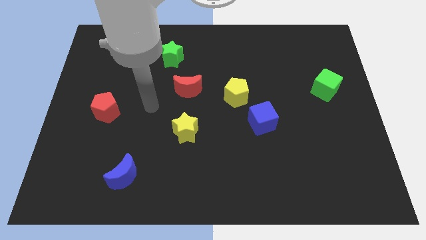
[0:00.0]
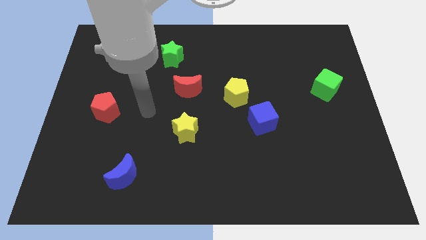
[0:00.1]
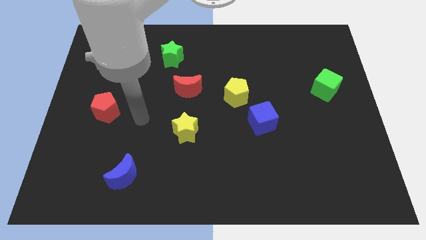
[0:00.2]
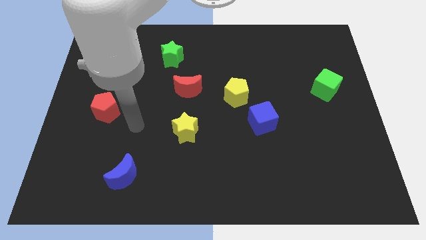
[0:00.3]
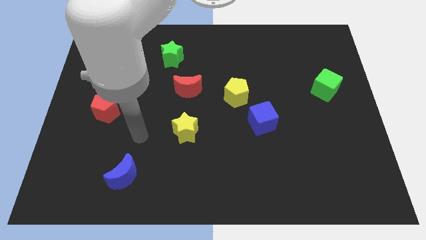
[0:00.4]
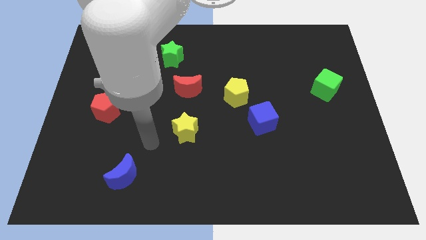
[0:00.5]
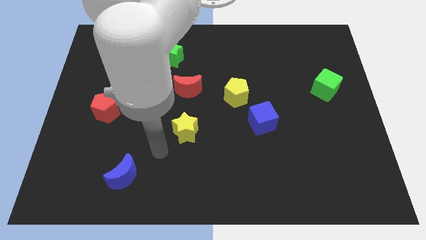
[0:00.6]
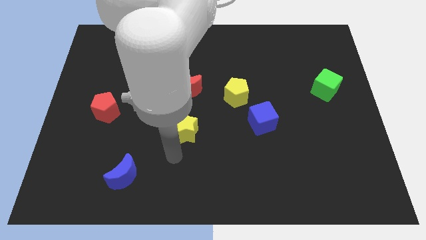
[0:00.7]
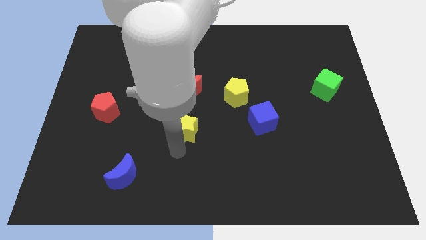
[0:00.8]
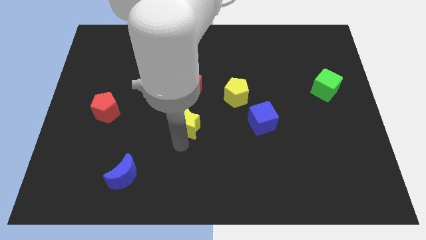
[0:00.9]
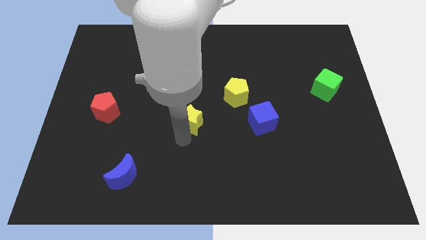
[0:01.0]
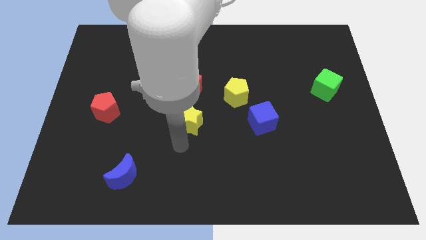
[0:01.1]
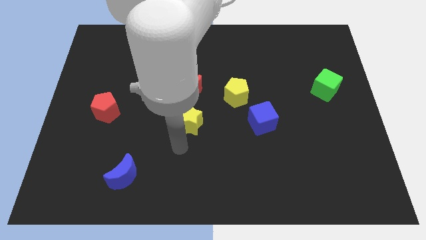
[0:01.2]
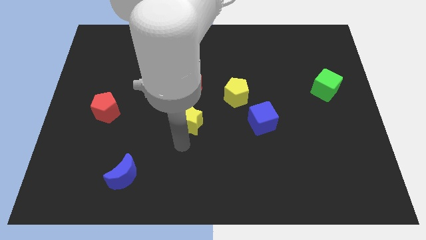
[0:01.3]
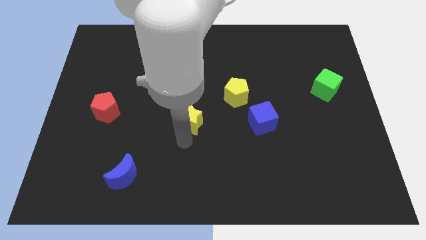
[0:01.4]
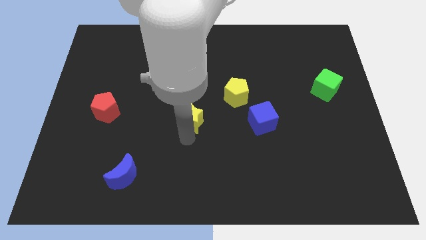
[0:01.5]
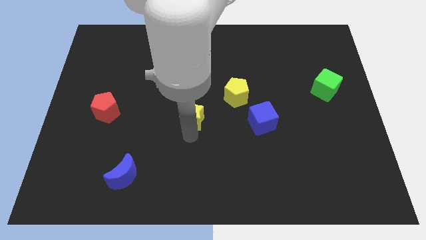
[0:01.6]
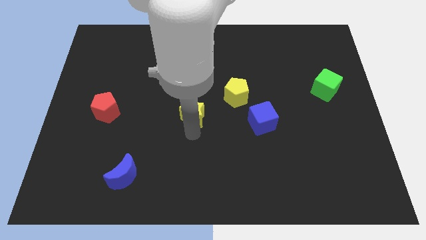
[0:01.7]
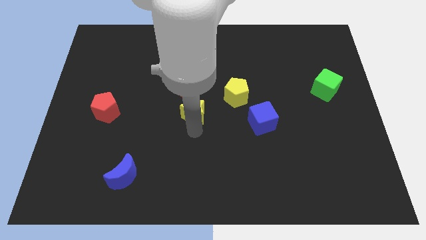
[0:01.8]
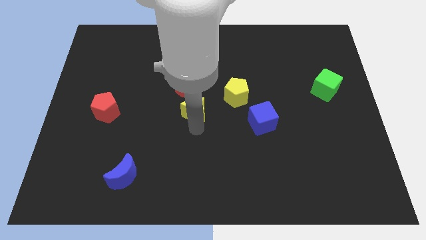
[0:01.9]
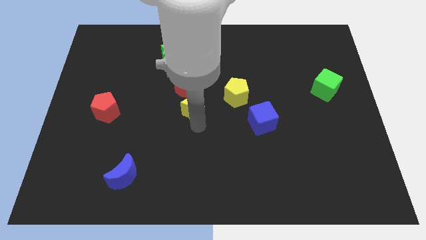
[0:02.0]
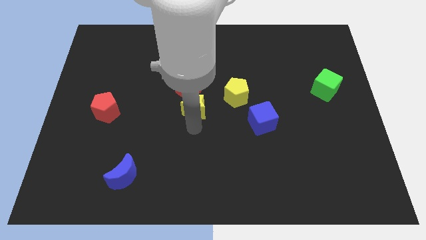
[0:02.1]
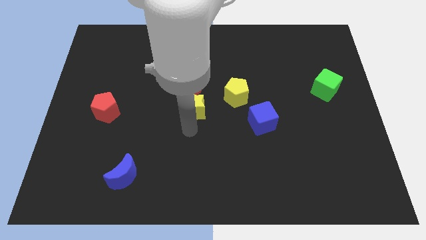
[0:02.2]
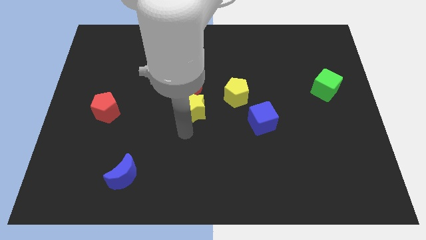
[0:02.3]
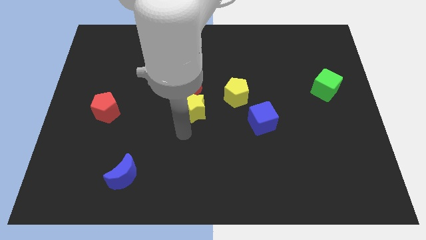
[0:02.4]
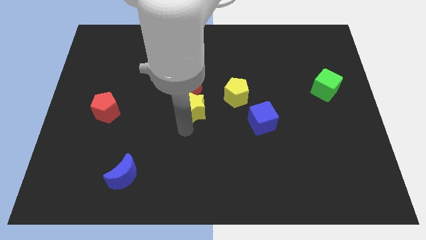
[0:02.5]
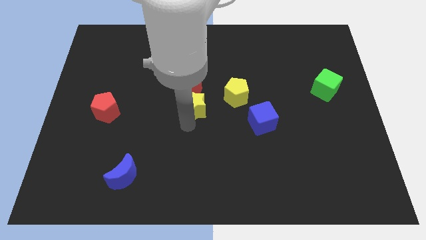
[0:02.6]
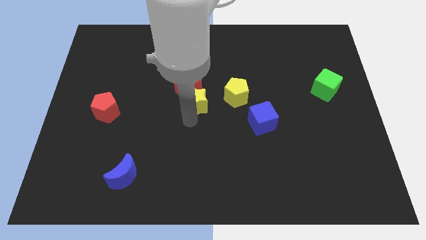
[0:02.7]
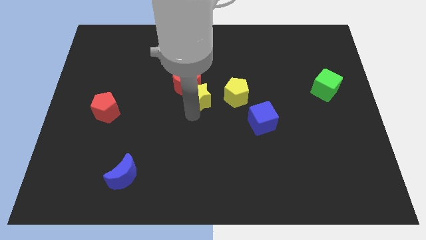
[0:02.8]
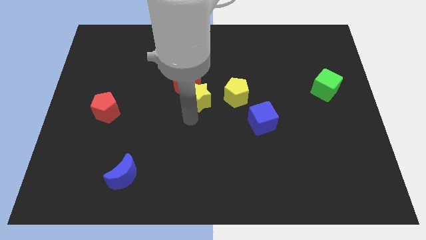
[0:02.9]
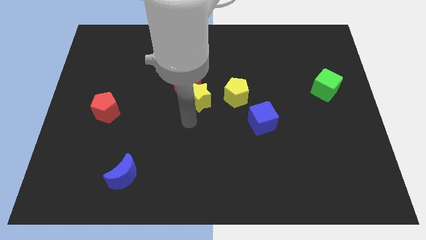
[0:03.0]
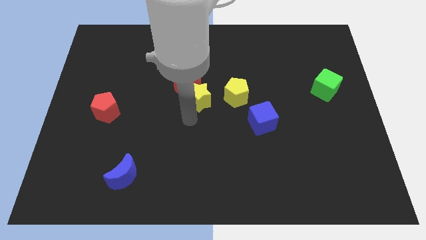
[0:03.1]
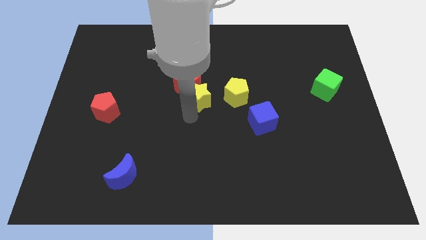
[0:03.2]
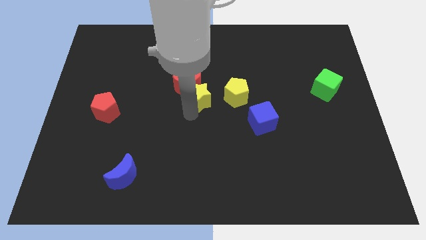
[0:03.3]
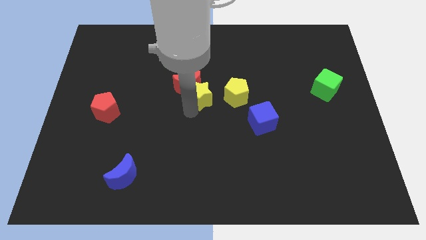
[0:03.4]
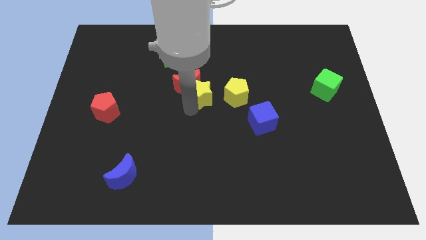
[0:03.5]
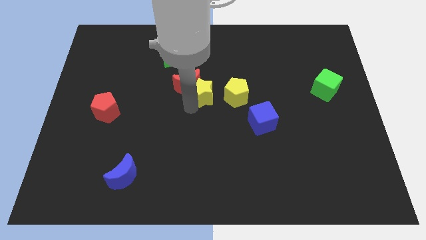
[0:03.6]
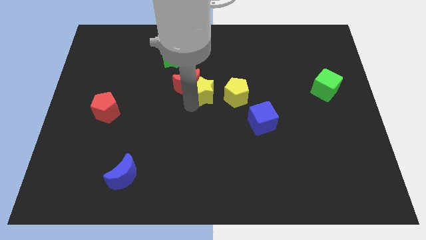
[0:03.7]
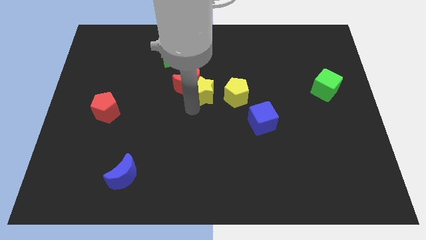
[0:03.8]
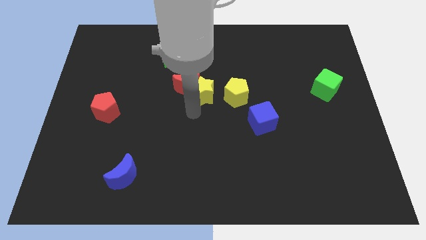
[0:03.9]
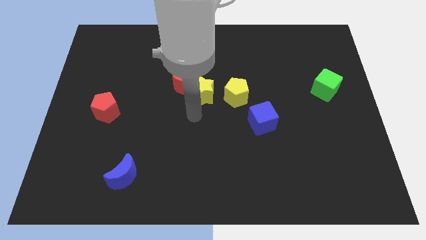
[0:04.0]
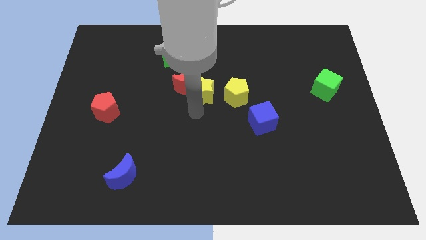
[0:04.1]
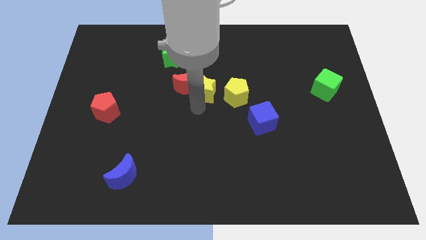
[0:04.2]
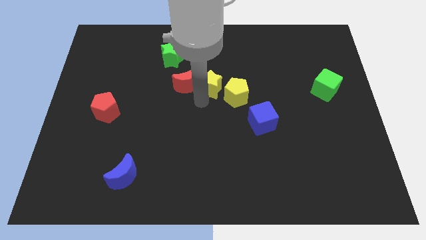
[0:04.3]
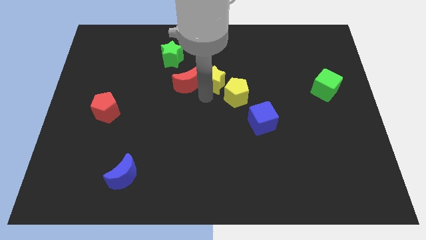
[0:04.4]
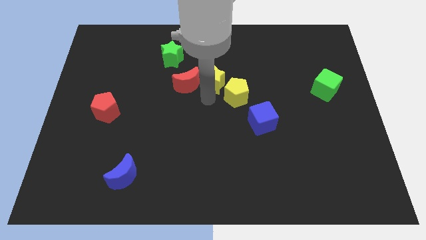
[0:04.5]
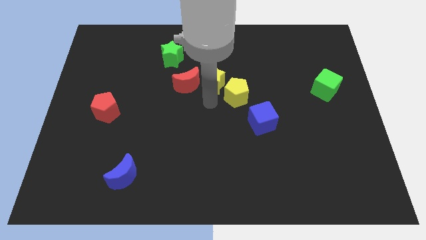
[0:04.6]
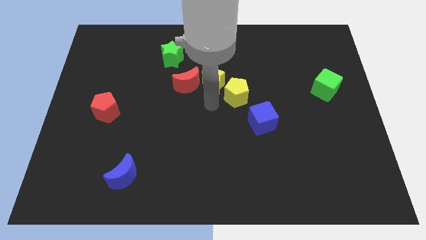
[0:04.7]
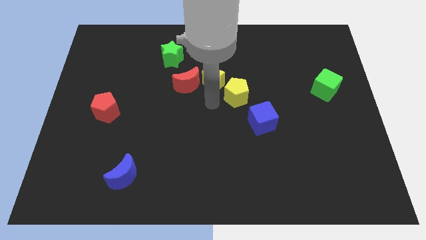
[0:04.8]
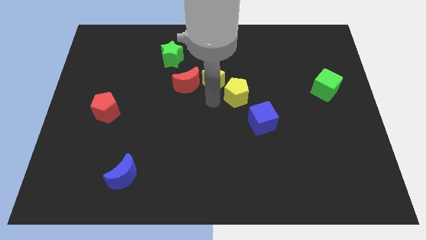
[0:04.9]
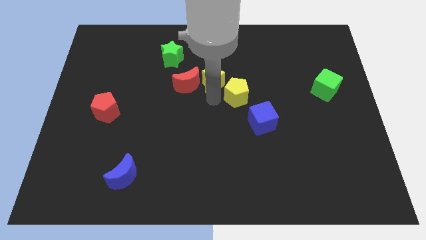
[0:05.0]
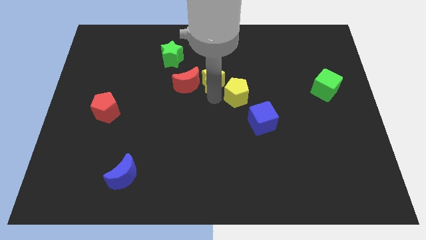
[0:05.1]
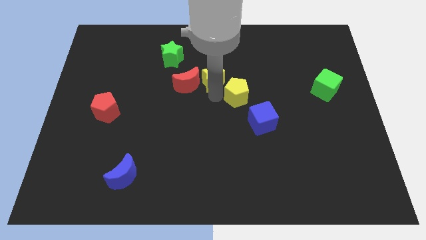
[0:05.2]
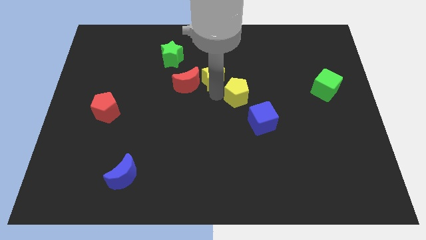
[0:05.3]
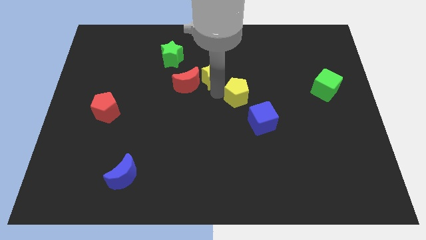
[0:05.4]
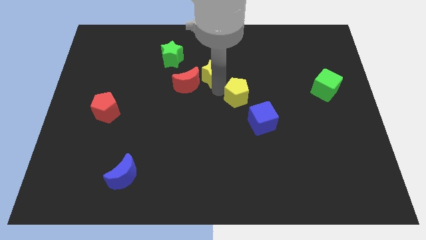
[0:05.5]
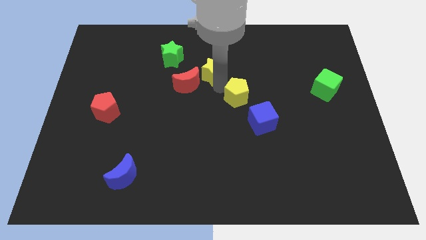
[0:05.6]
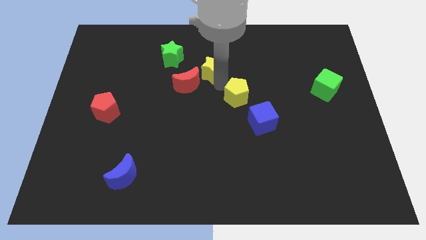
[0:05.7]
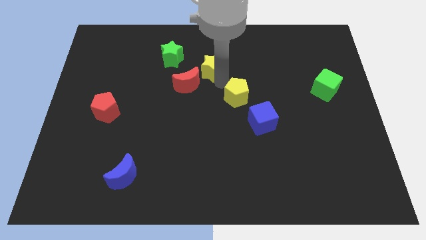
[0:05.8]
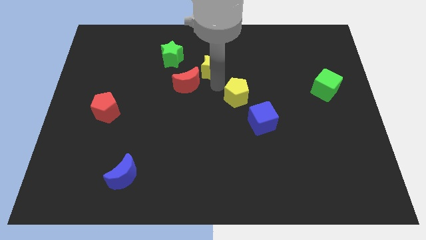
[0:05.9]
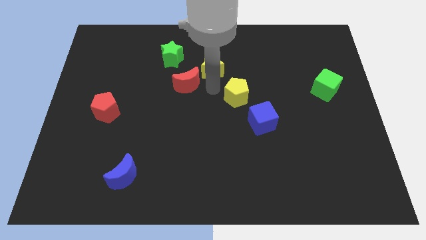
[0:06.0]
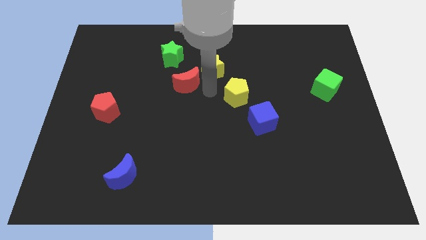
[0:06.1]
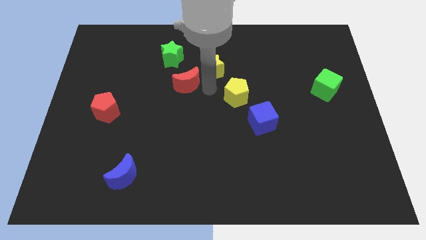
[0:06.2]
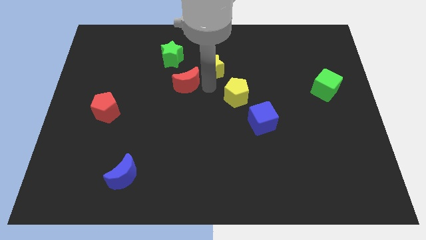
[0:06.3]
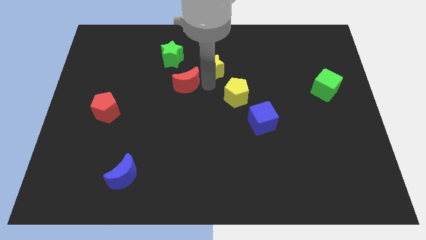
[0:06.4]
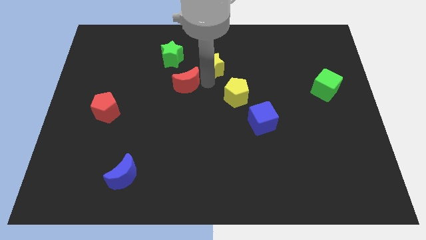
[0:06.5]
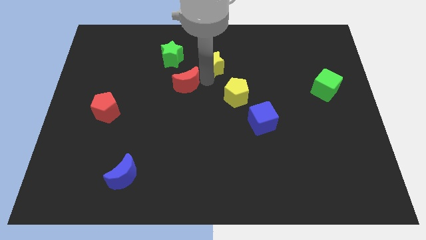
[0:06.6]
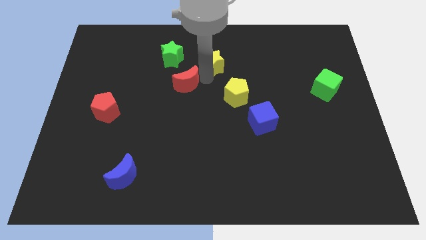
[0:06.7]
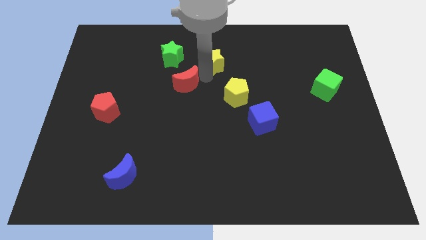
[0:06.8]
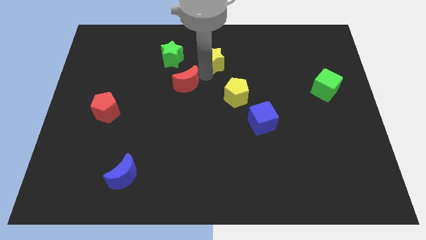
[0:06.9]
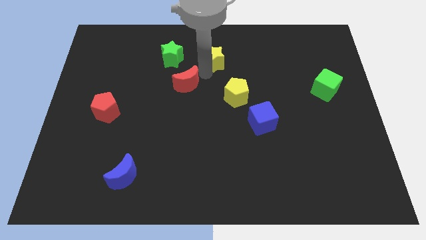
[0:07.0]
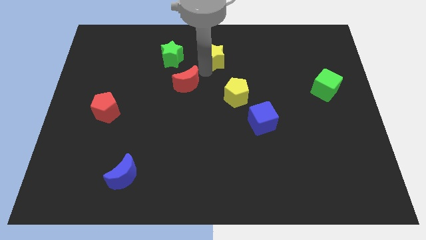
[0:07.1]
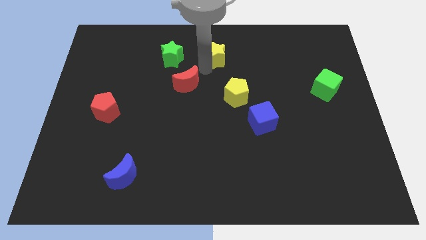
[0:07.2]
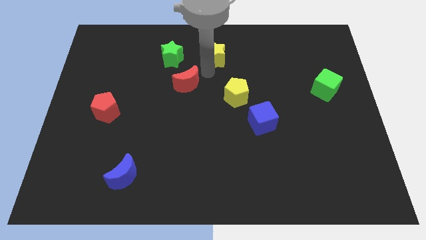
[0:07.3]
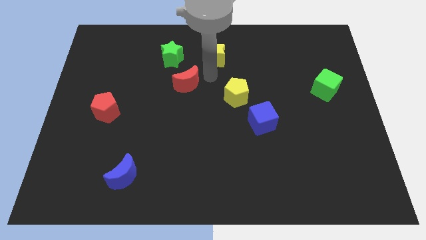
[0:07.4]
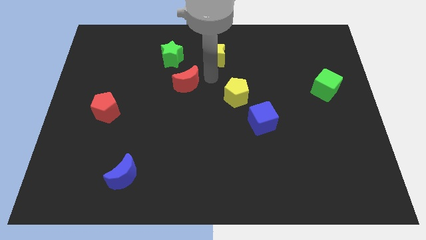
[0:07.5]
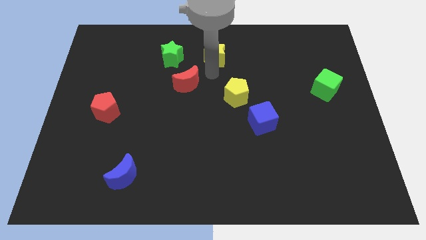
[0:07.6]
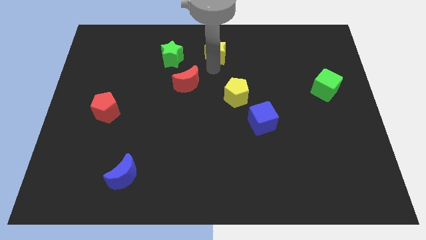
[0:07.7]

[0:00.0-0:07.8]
slide the yellow star to the top side

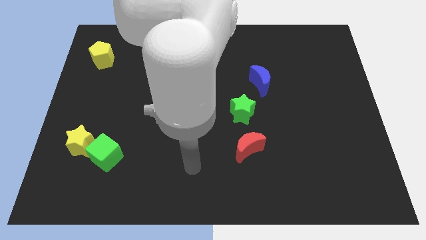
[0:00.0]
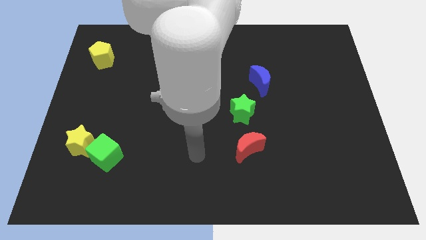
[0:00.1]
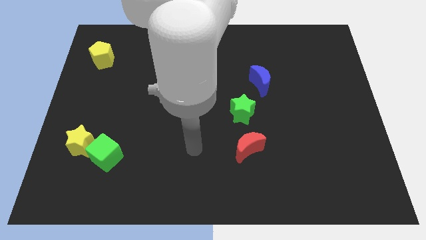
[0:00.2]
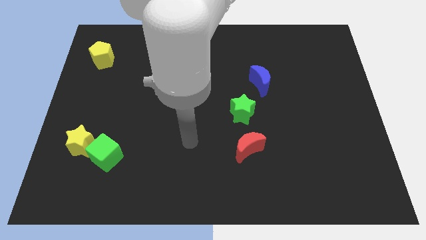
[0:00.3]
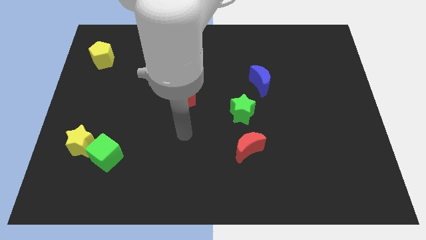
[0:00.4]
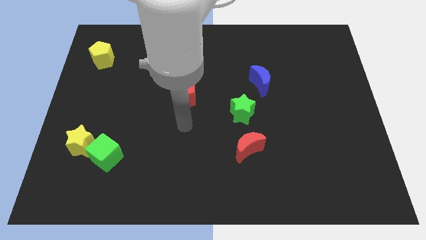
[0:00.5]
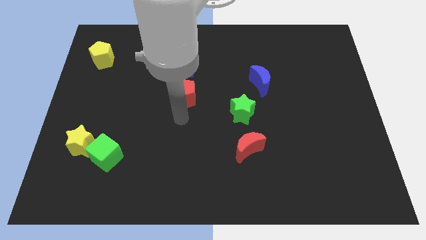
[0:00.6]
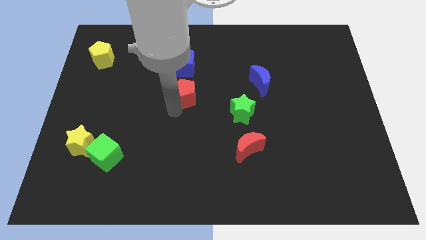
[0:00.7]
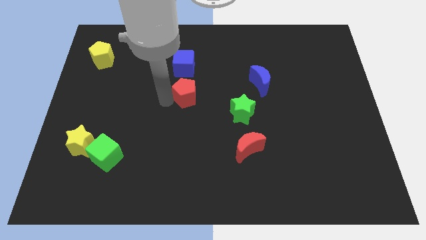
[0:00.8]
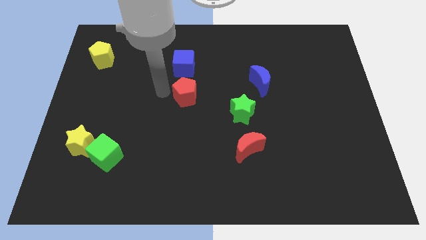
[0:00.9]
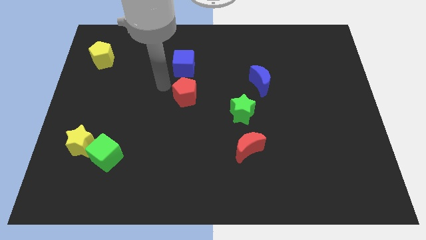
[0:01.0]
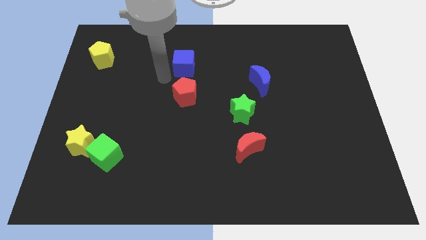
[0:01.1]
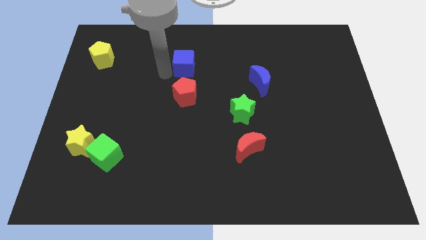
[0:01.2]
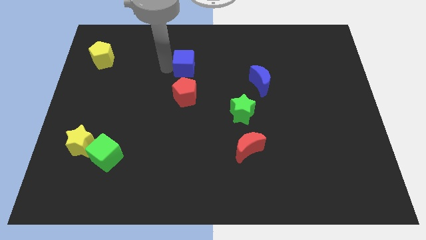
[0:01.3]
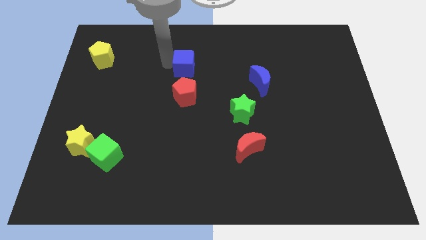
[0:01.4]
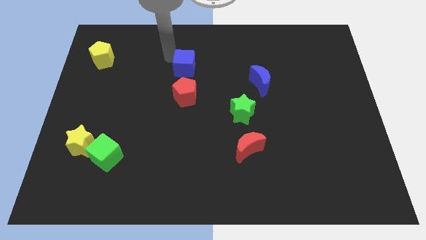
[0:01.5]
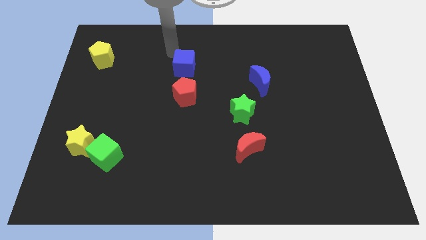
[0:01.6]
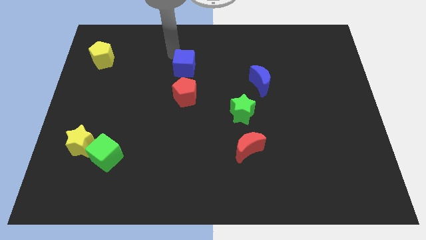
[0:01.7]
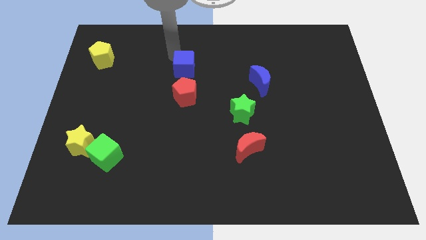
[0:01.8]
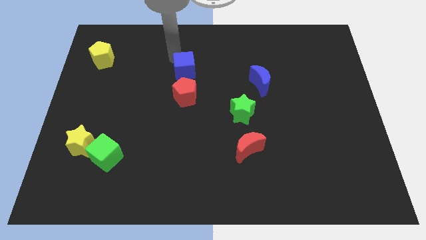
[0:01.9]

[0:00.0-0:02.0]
slide the blue cube to the middle of the board
